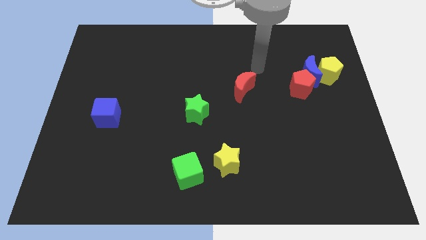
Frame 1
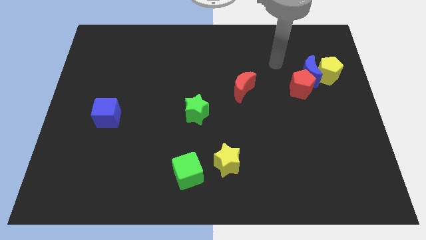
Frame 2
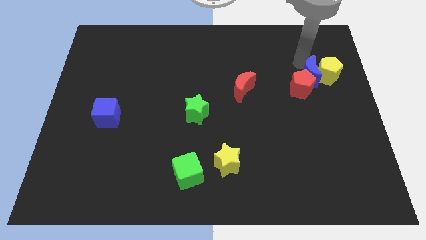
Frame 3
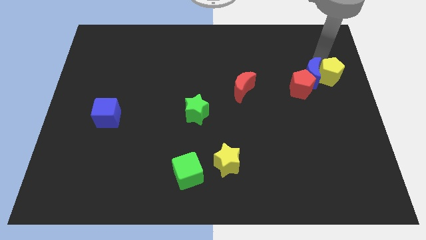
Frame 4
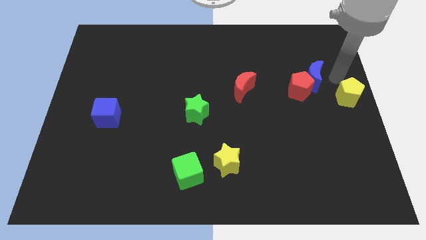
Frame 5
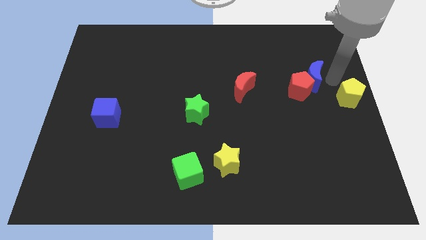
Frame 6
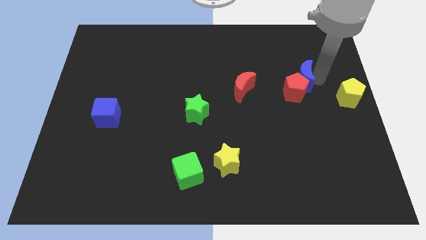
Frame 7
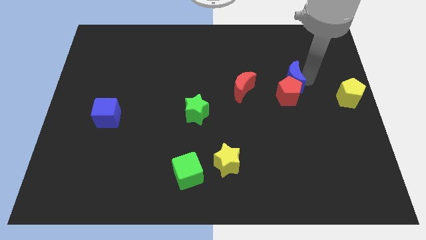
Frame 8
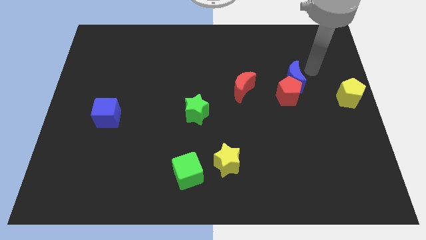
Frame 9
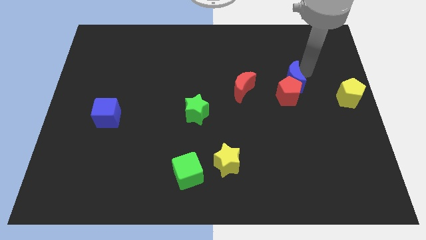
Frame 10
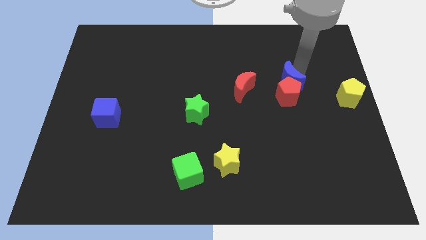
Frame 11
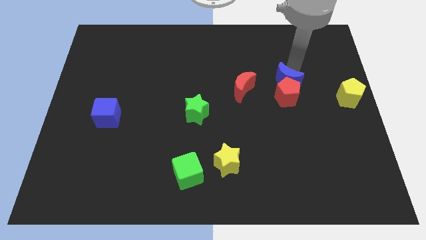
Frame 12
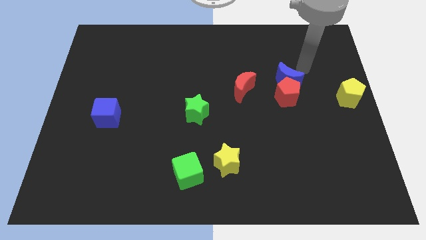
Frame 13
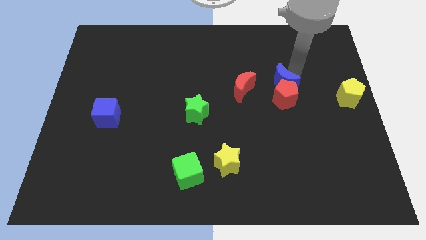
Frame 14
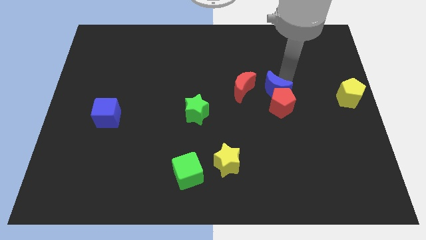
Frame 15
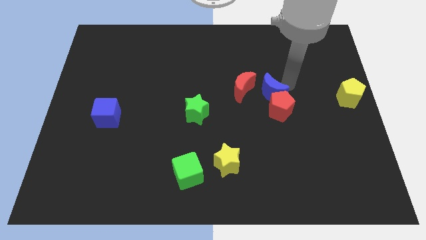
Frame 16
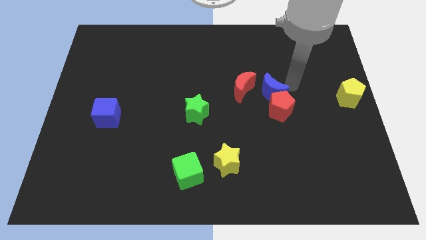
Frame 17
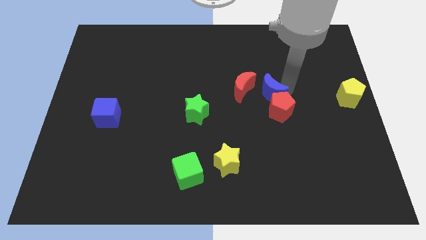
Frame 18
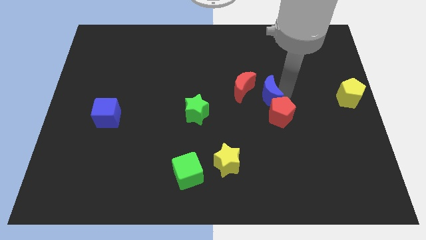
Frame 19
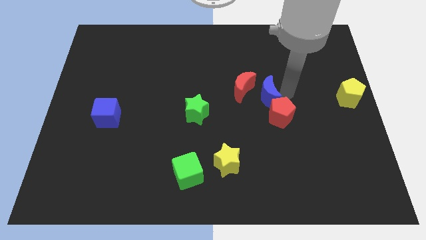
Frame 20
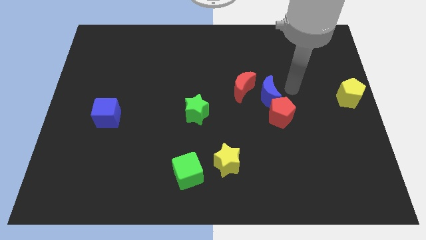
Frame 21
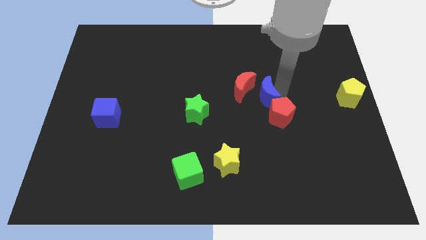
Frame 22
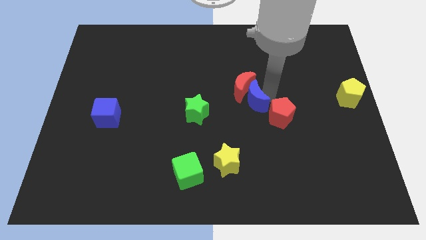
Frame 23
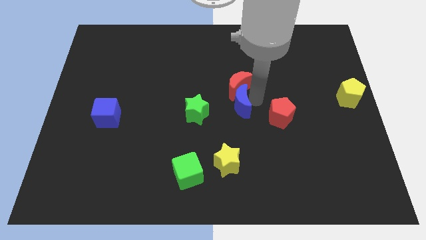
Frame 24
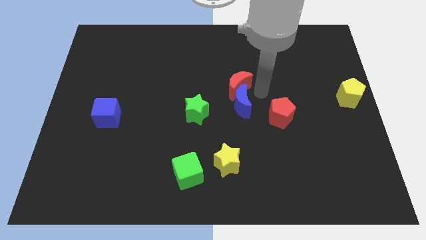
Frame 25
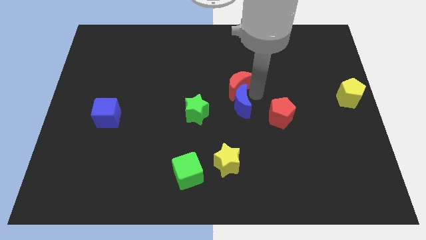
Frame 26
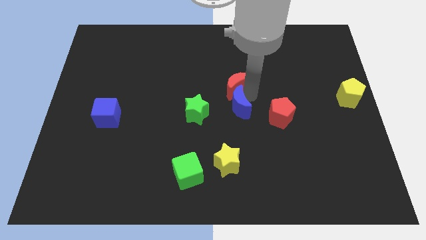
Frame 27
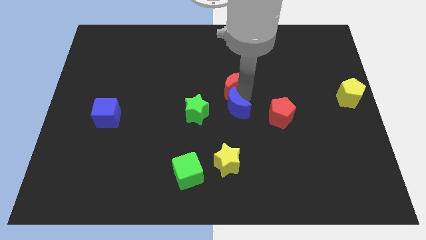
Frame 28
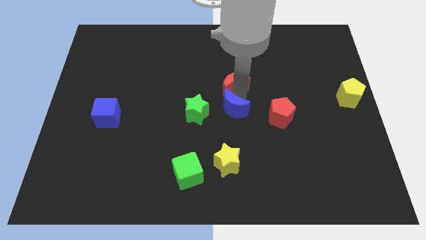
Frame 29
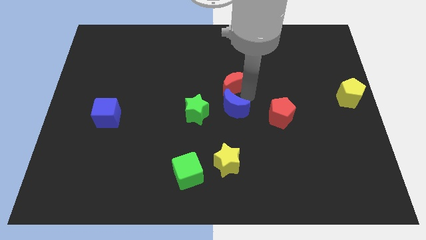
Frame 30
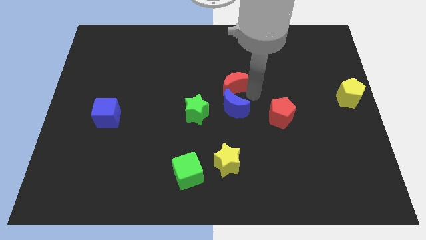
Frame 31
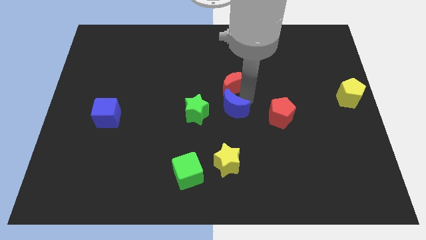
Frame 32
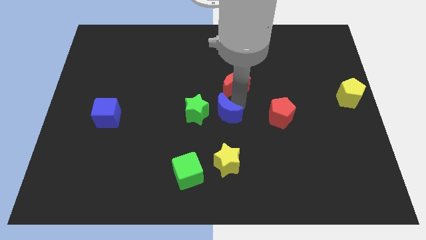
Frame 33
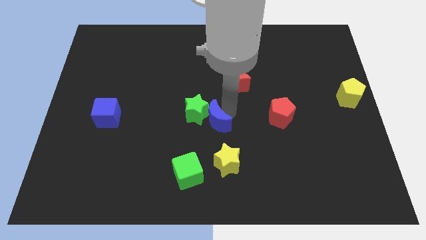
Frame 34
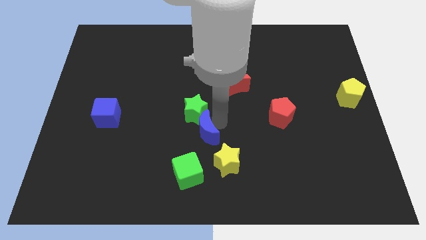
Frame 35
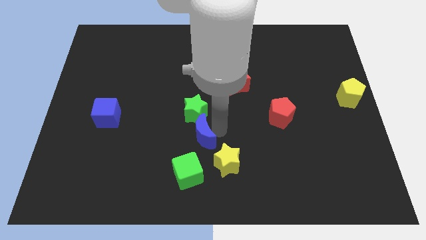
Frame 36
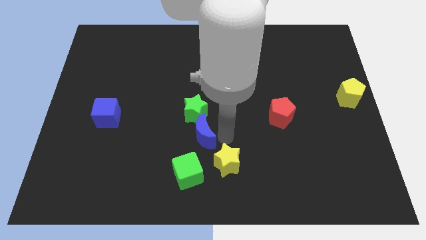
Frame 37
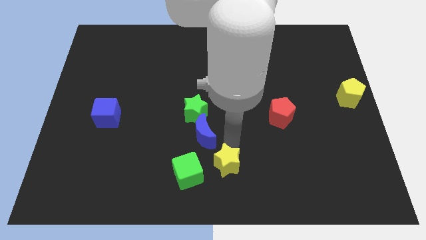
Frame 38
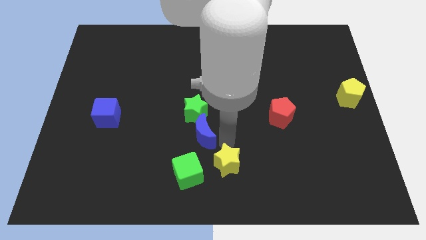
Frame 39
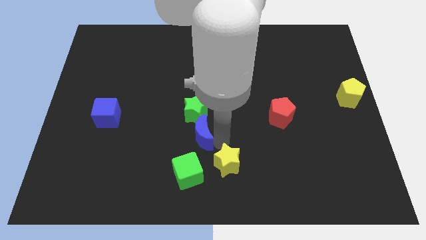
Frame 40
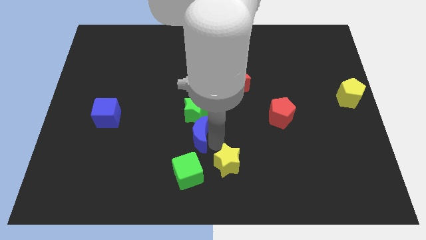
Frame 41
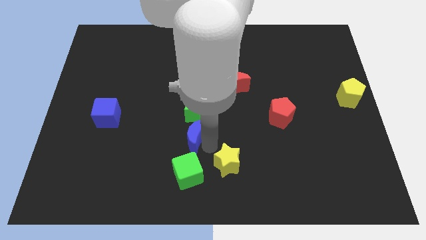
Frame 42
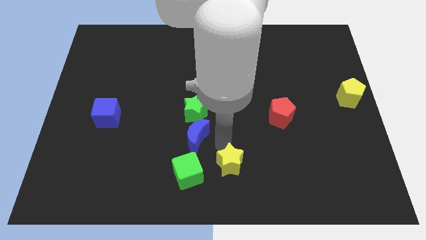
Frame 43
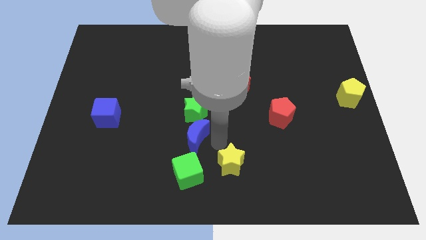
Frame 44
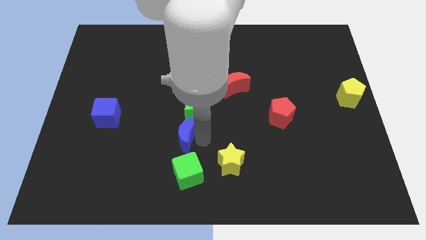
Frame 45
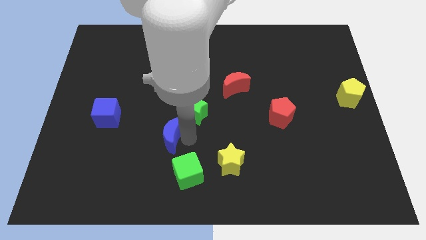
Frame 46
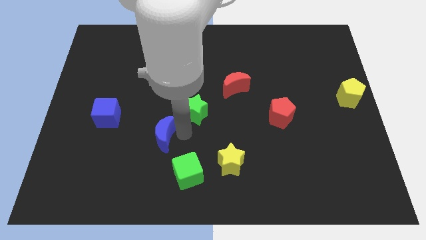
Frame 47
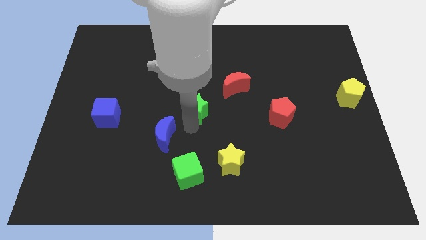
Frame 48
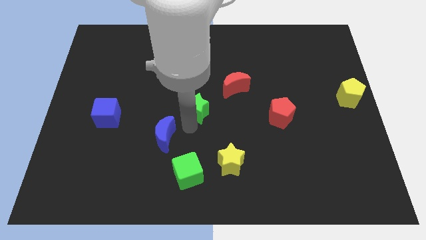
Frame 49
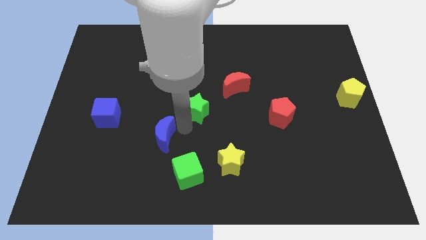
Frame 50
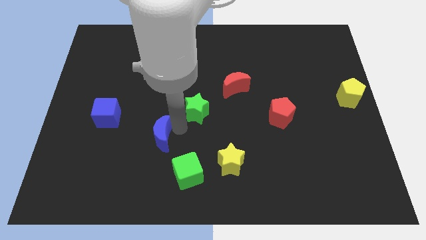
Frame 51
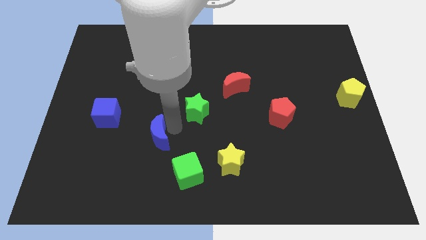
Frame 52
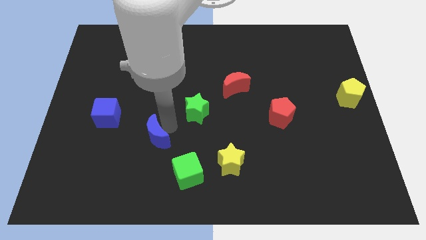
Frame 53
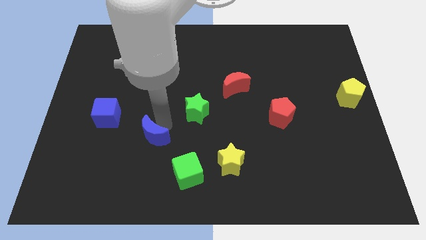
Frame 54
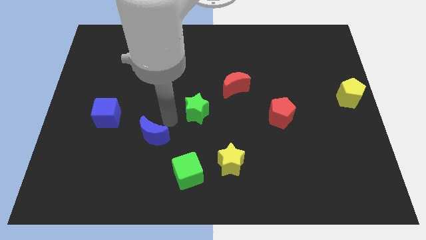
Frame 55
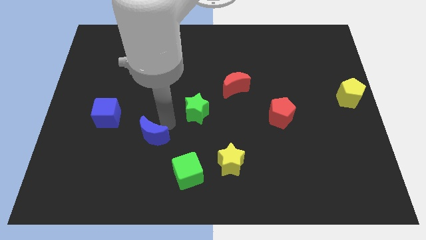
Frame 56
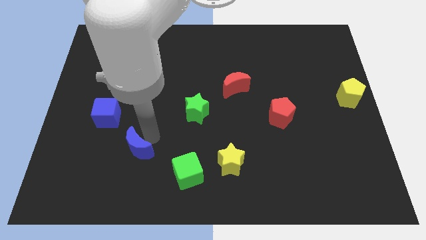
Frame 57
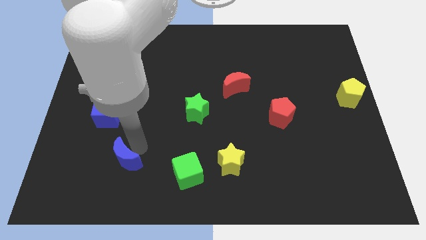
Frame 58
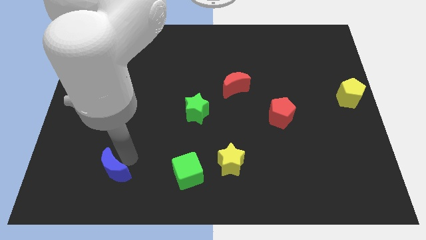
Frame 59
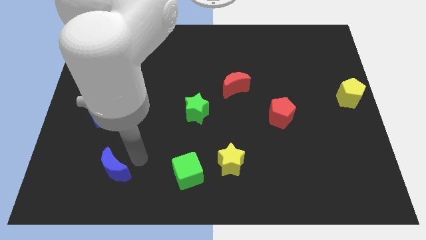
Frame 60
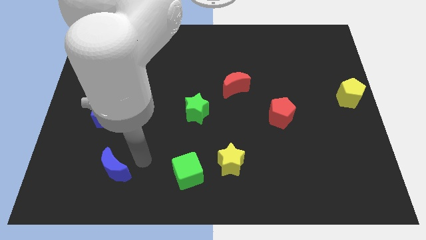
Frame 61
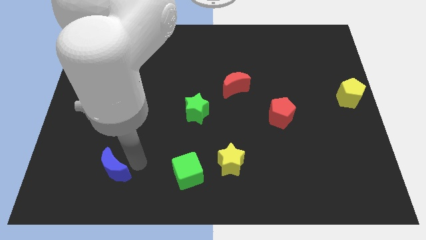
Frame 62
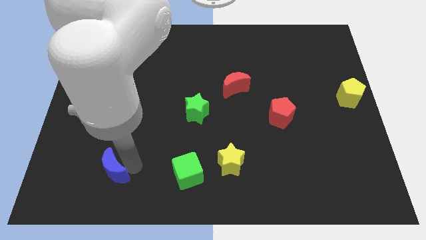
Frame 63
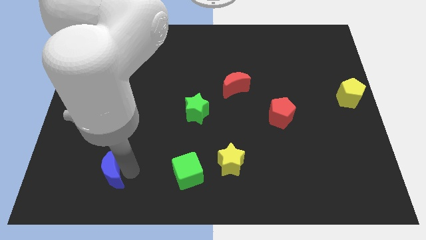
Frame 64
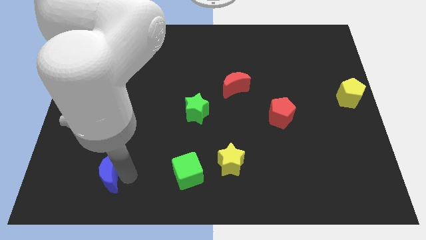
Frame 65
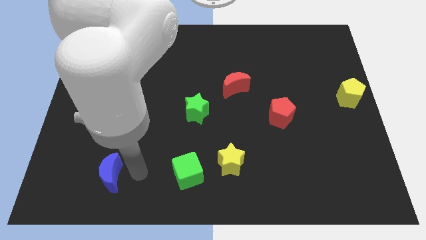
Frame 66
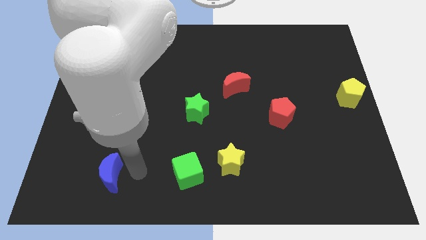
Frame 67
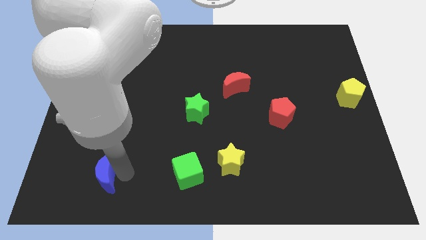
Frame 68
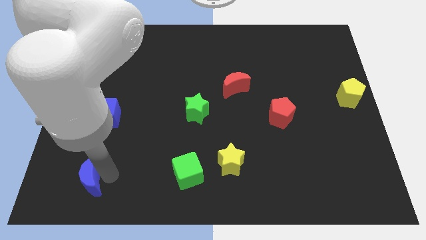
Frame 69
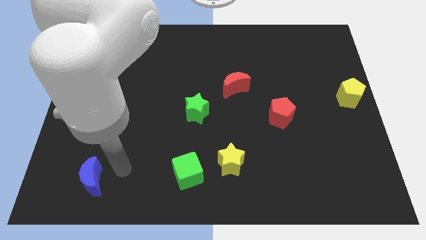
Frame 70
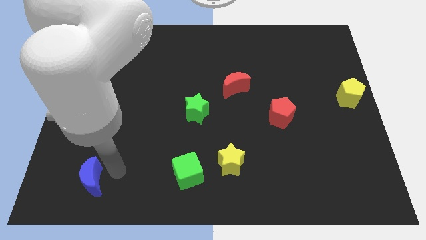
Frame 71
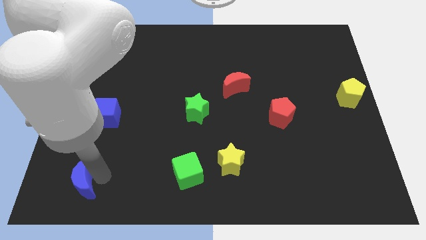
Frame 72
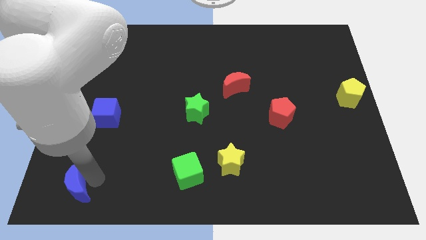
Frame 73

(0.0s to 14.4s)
put the blue moon to the bottom left corner

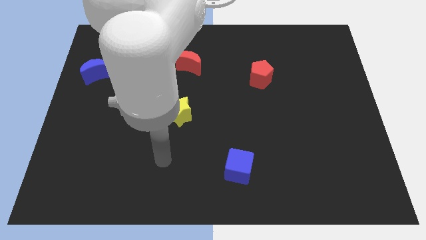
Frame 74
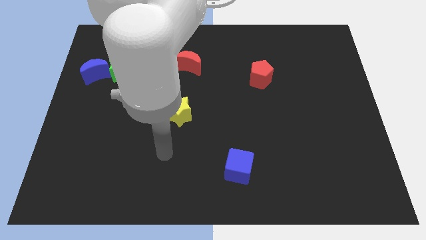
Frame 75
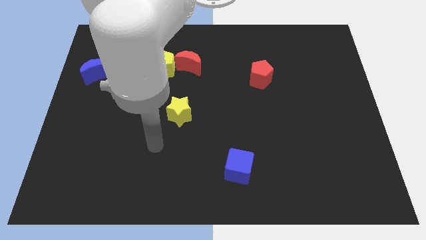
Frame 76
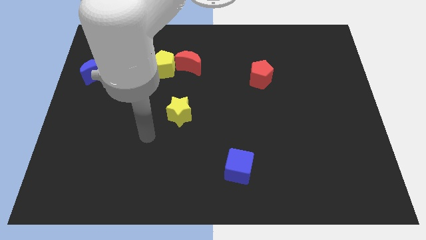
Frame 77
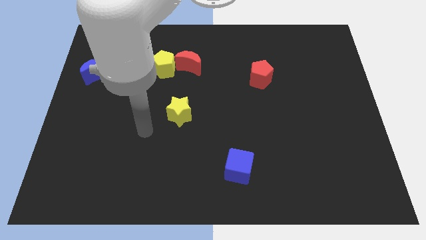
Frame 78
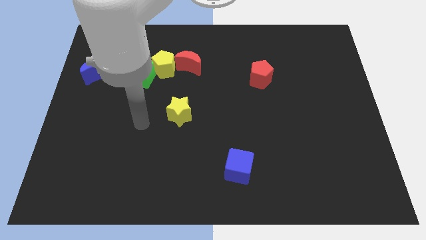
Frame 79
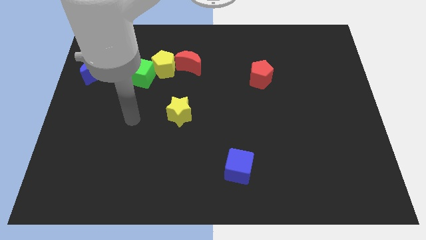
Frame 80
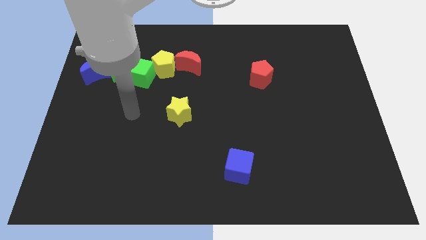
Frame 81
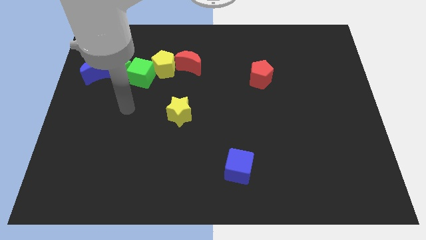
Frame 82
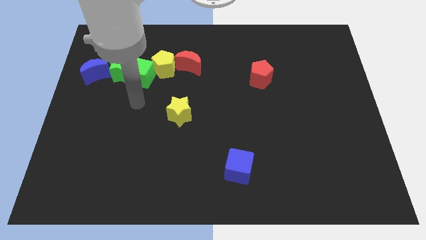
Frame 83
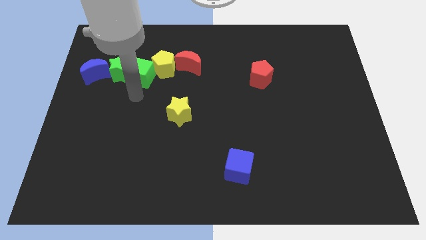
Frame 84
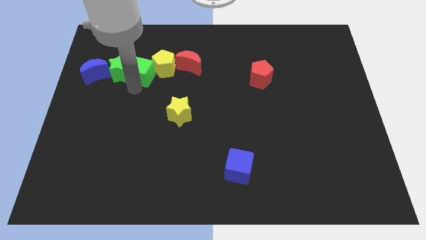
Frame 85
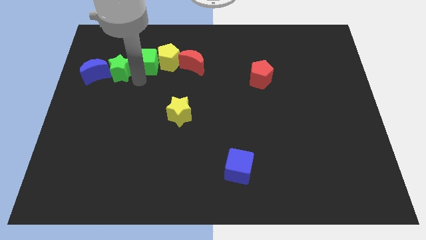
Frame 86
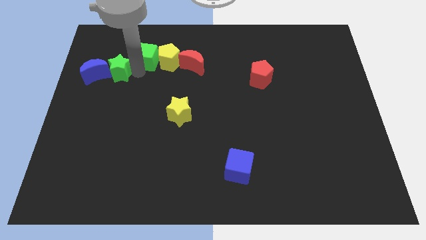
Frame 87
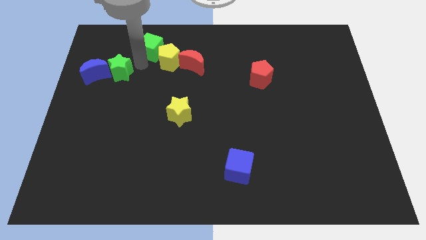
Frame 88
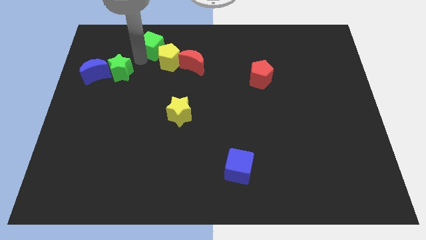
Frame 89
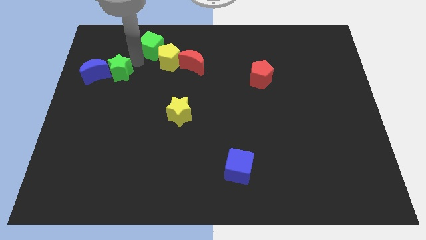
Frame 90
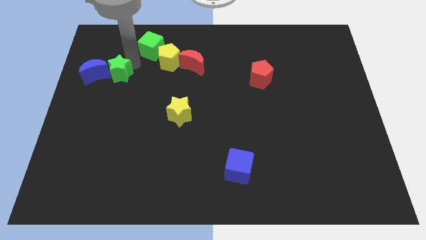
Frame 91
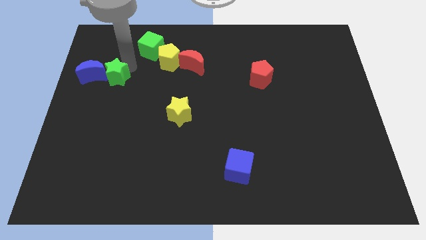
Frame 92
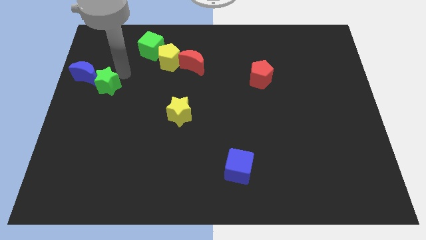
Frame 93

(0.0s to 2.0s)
push the green star to the left side of the board
